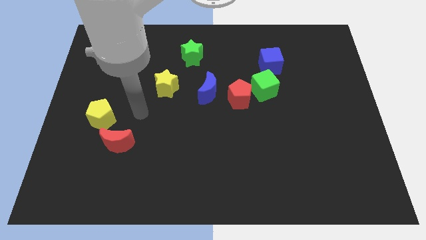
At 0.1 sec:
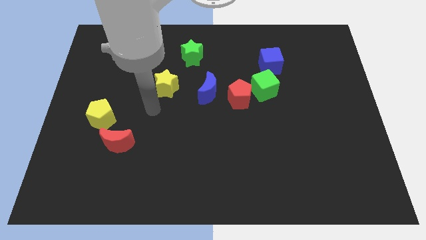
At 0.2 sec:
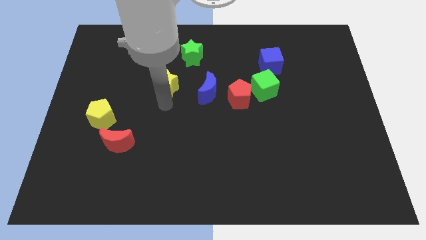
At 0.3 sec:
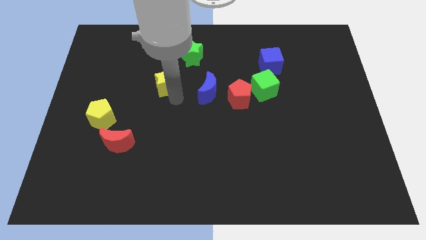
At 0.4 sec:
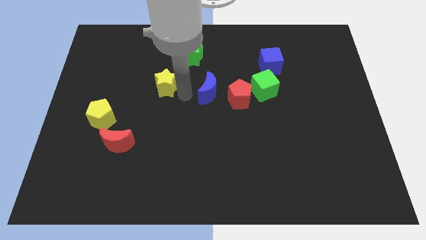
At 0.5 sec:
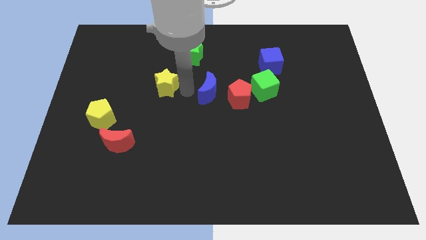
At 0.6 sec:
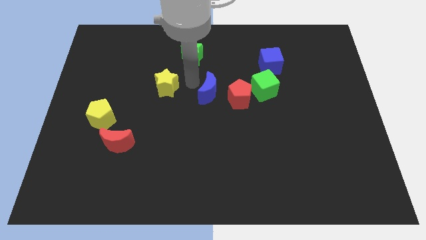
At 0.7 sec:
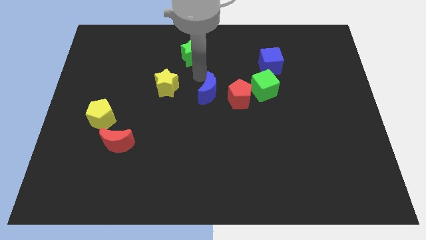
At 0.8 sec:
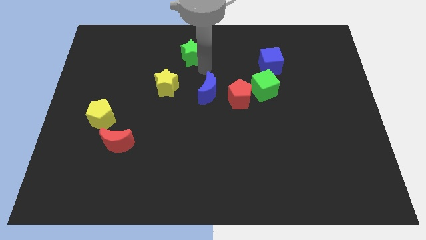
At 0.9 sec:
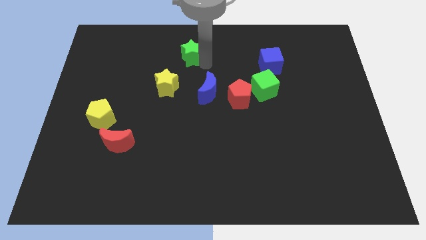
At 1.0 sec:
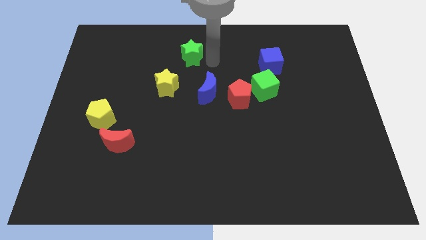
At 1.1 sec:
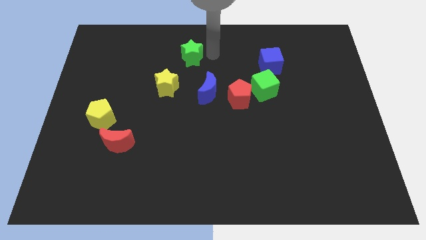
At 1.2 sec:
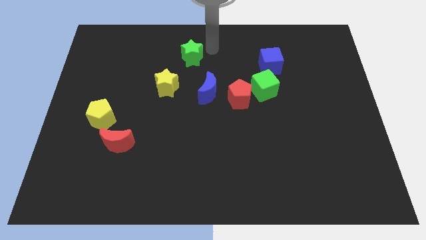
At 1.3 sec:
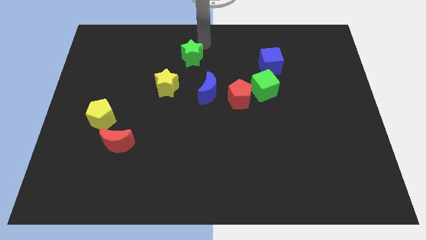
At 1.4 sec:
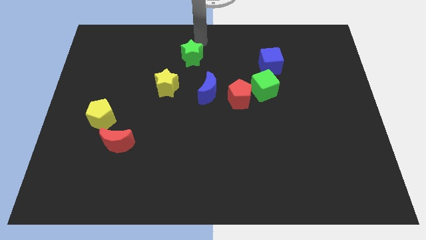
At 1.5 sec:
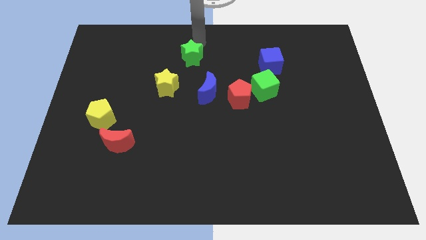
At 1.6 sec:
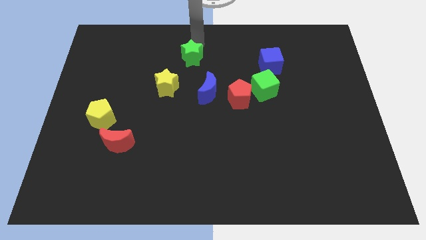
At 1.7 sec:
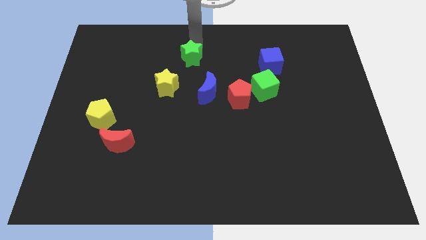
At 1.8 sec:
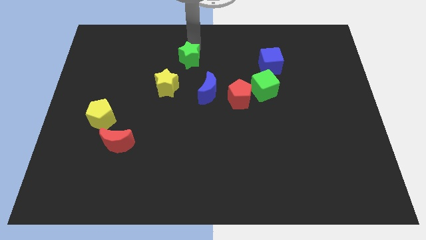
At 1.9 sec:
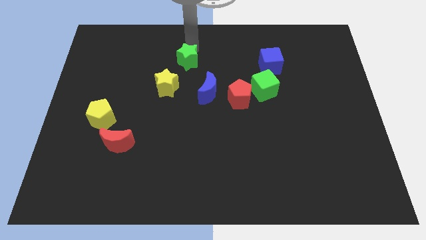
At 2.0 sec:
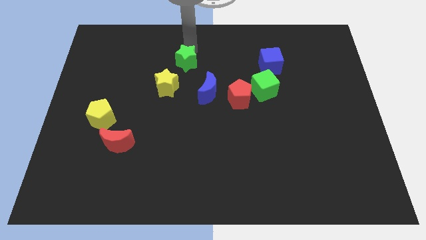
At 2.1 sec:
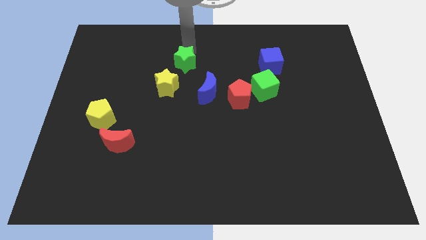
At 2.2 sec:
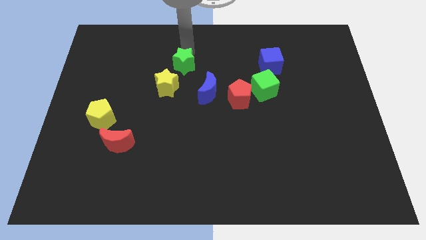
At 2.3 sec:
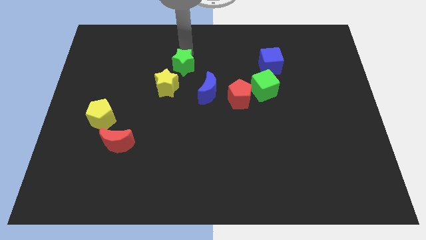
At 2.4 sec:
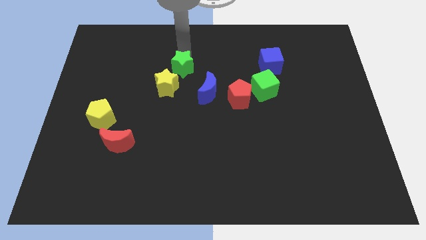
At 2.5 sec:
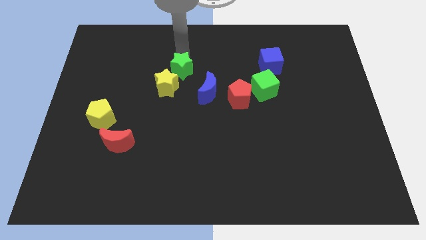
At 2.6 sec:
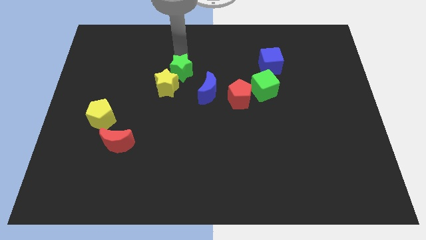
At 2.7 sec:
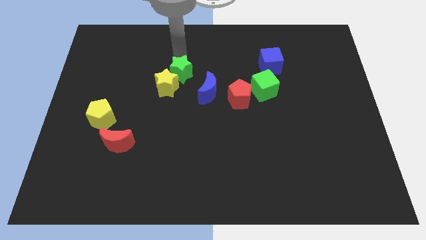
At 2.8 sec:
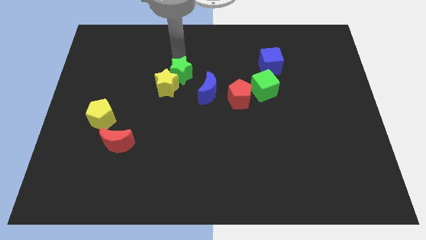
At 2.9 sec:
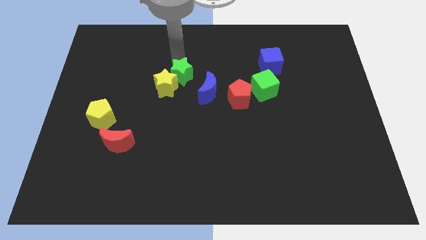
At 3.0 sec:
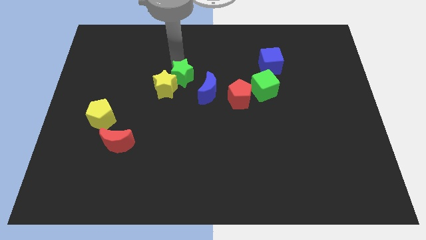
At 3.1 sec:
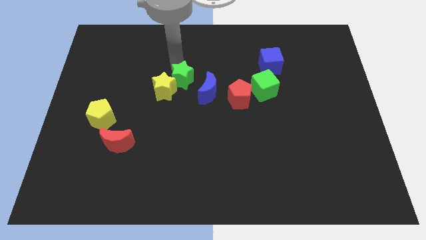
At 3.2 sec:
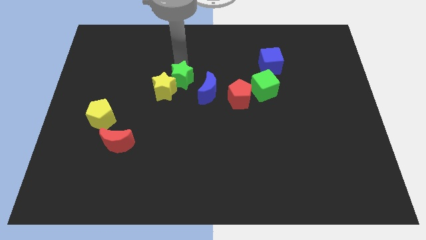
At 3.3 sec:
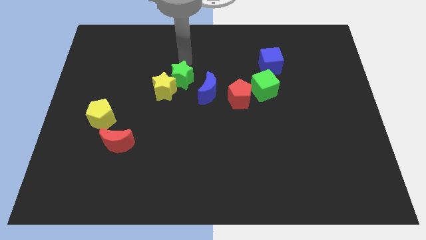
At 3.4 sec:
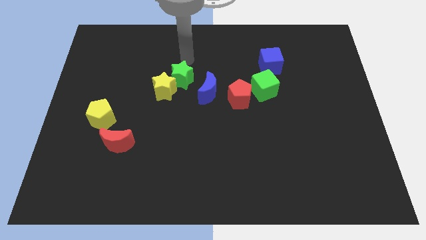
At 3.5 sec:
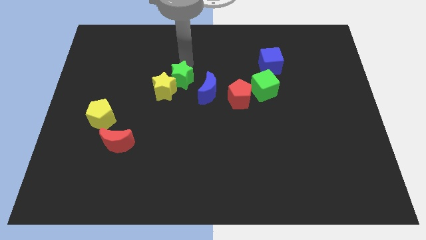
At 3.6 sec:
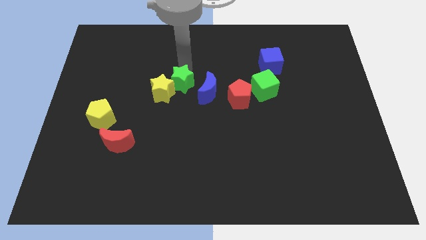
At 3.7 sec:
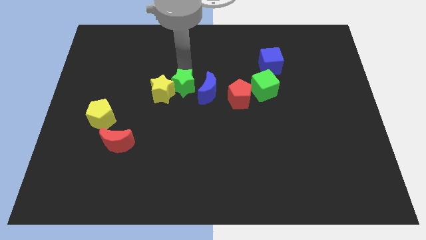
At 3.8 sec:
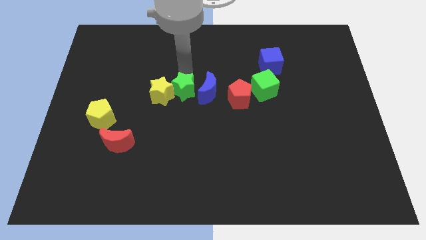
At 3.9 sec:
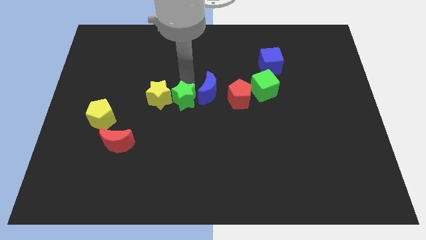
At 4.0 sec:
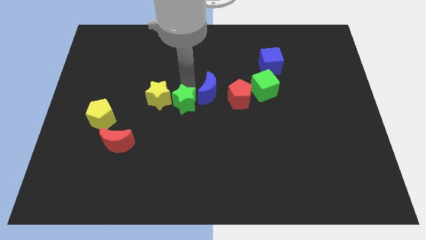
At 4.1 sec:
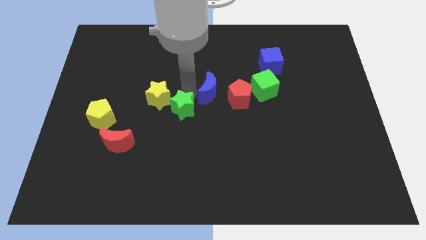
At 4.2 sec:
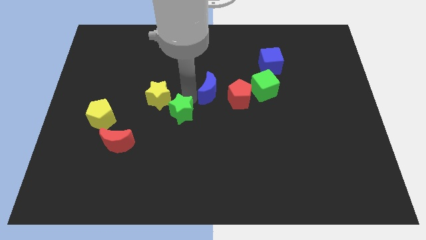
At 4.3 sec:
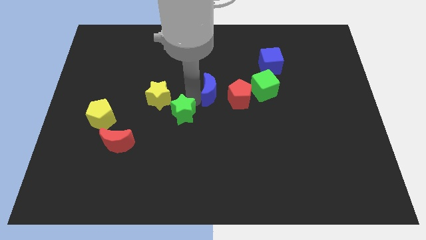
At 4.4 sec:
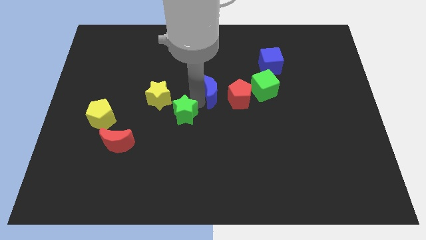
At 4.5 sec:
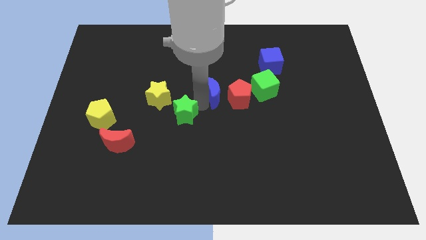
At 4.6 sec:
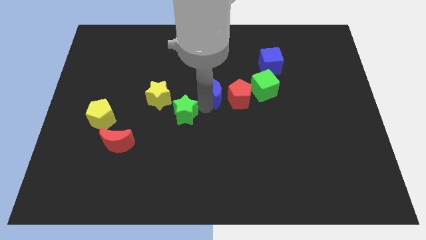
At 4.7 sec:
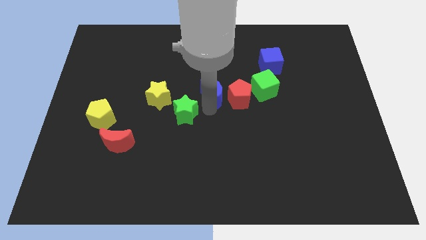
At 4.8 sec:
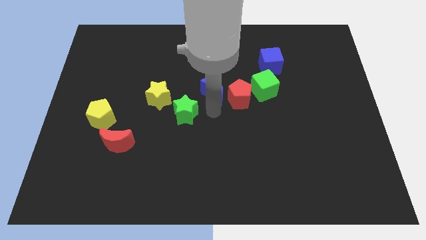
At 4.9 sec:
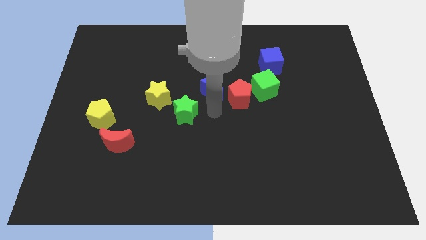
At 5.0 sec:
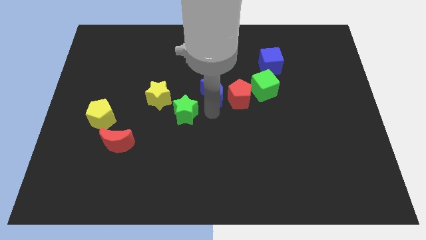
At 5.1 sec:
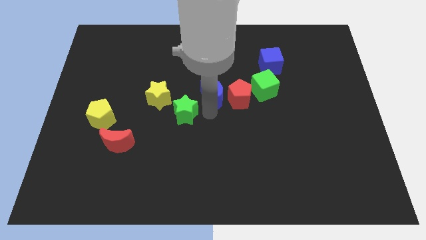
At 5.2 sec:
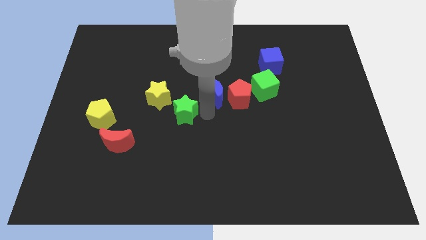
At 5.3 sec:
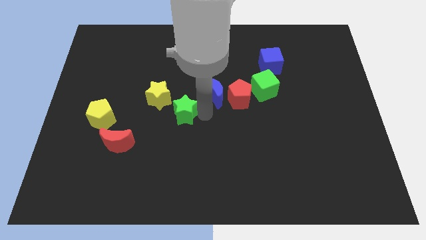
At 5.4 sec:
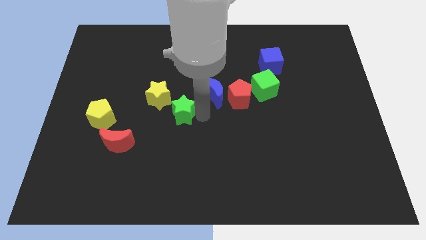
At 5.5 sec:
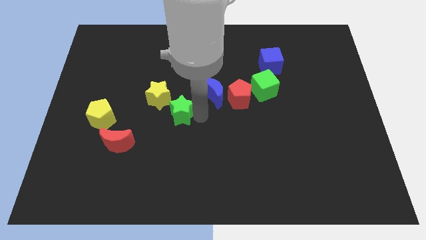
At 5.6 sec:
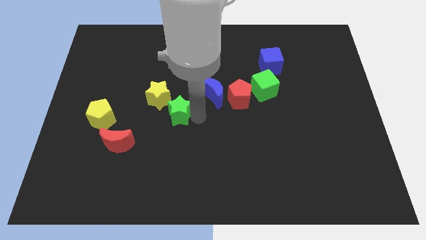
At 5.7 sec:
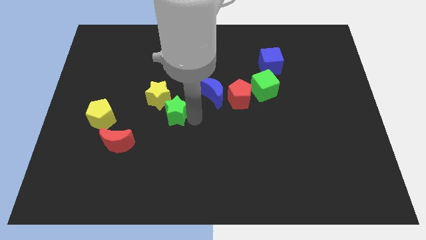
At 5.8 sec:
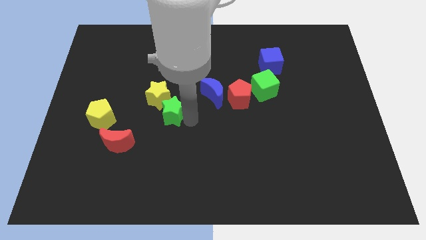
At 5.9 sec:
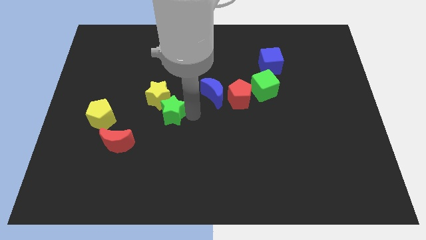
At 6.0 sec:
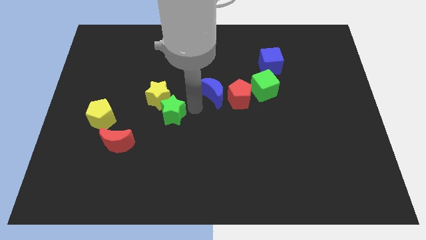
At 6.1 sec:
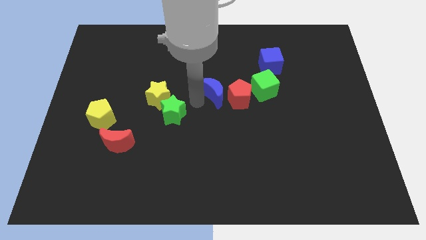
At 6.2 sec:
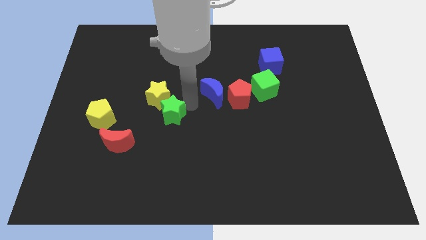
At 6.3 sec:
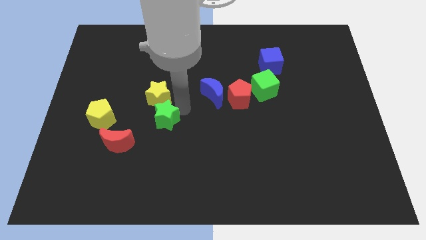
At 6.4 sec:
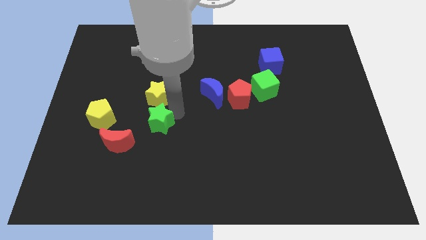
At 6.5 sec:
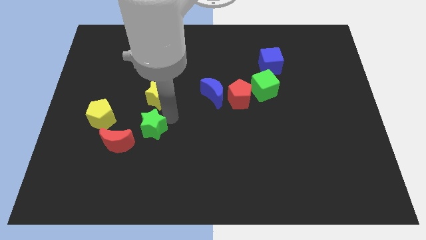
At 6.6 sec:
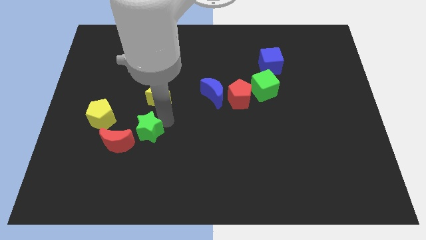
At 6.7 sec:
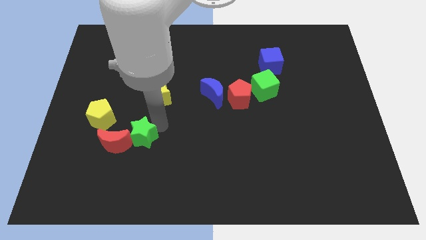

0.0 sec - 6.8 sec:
push the green star towards the red moon
